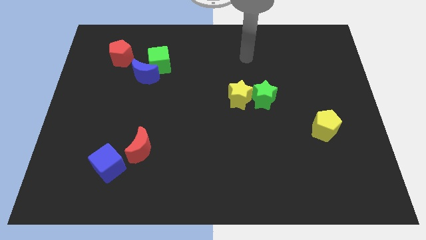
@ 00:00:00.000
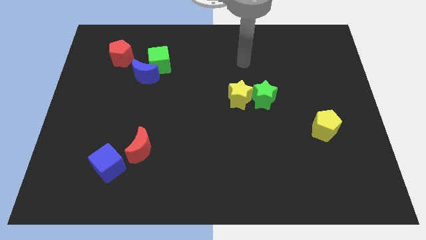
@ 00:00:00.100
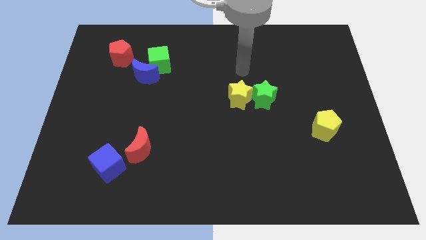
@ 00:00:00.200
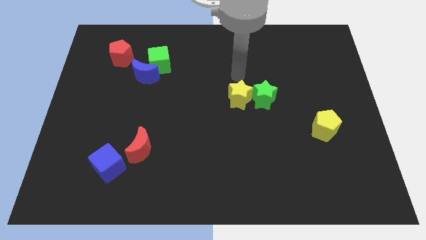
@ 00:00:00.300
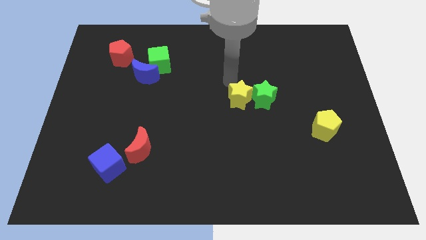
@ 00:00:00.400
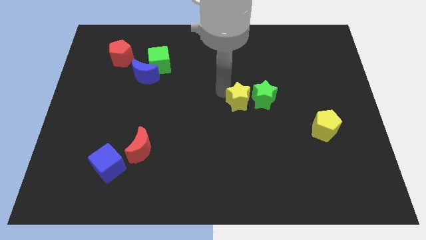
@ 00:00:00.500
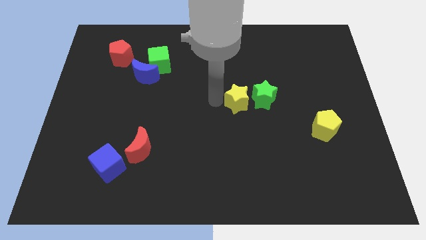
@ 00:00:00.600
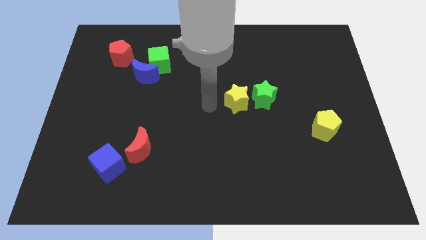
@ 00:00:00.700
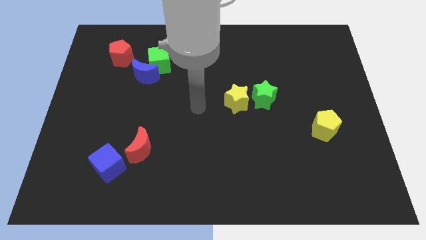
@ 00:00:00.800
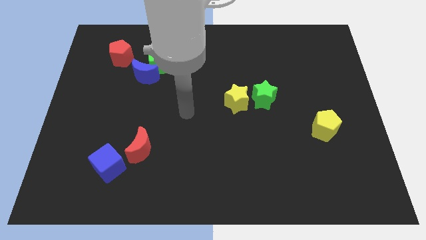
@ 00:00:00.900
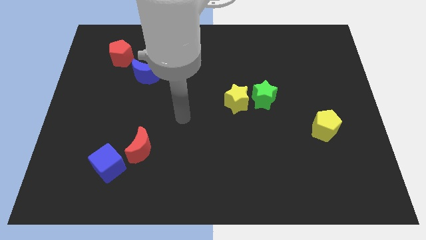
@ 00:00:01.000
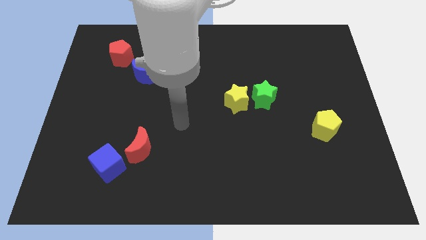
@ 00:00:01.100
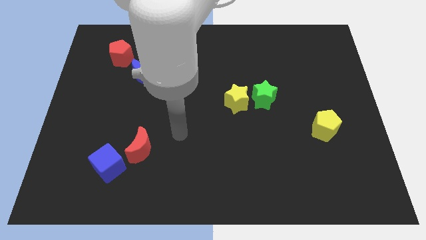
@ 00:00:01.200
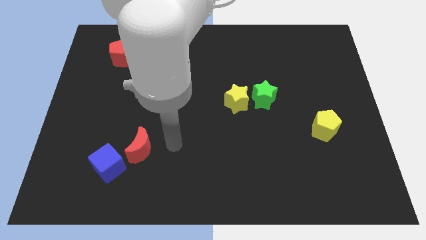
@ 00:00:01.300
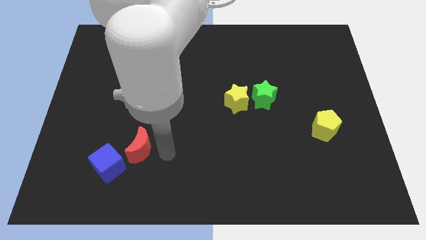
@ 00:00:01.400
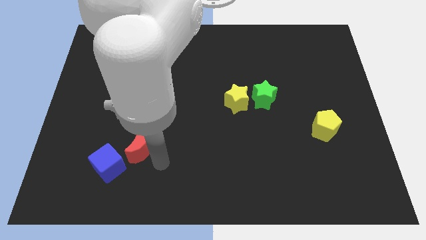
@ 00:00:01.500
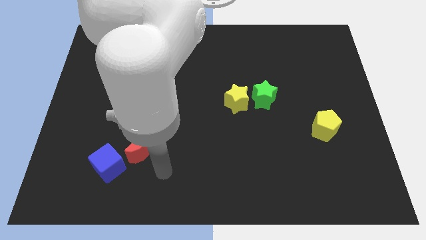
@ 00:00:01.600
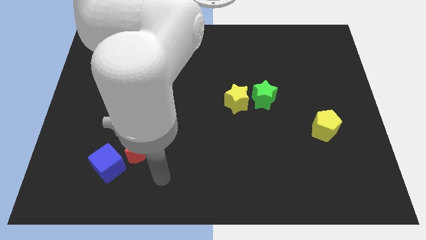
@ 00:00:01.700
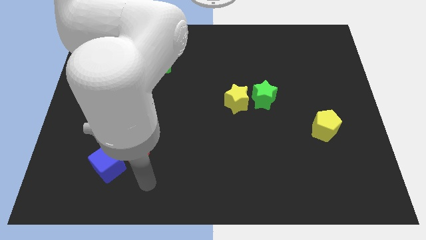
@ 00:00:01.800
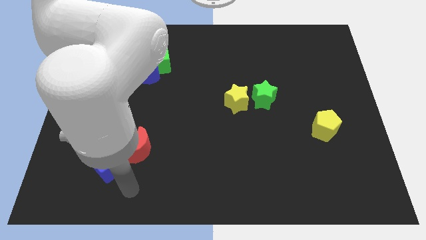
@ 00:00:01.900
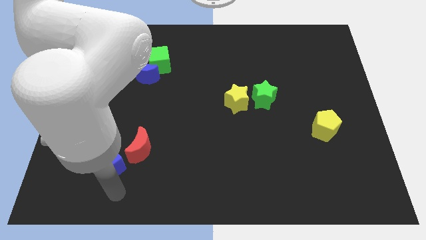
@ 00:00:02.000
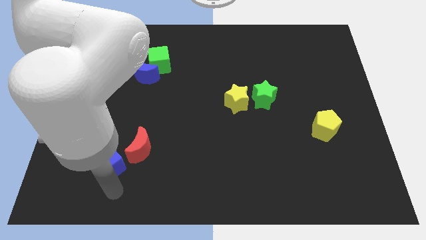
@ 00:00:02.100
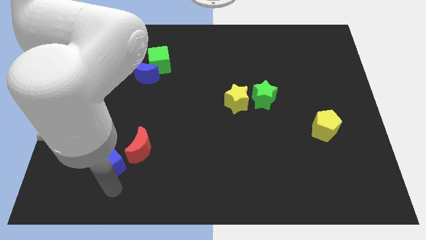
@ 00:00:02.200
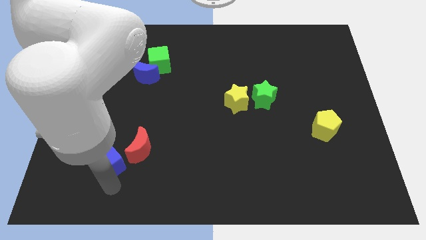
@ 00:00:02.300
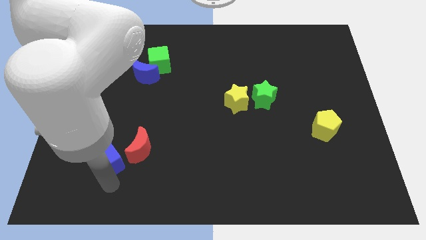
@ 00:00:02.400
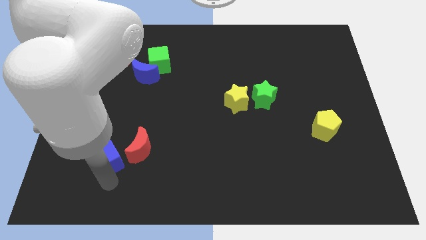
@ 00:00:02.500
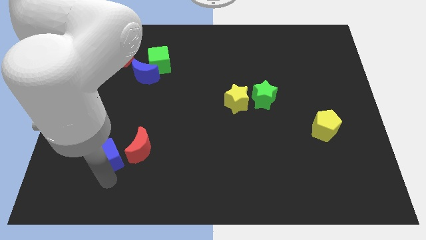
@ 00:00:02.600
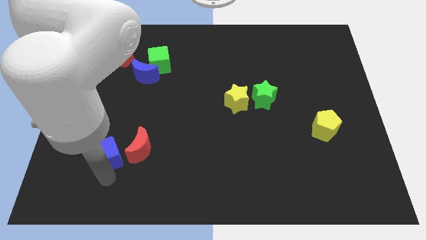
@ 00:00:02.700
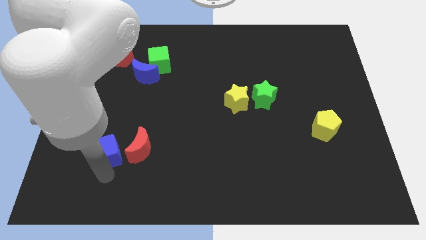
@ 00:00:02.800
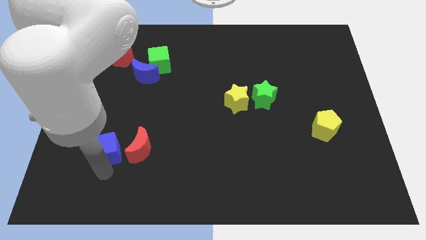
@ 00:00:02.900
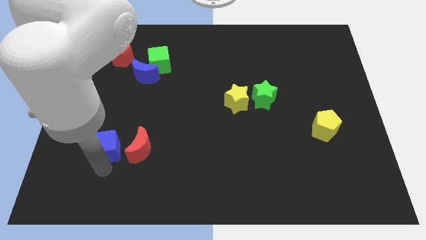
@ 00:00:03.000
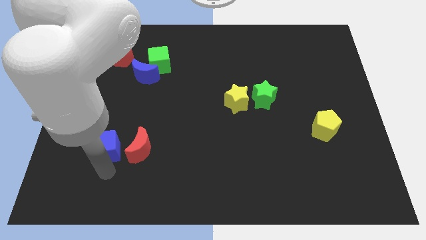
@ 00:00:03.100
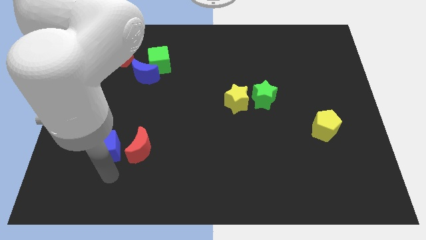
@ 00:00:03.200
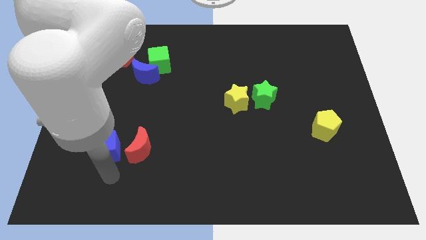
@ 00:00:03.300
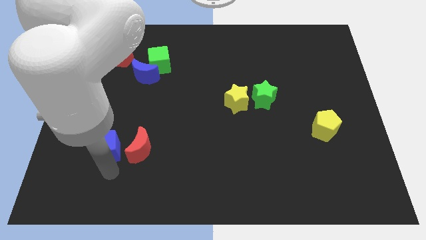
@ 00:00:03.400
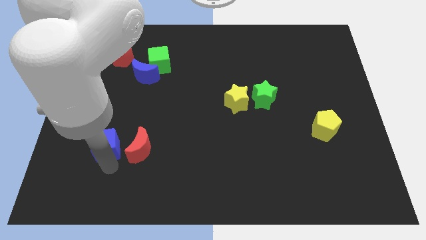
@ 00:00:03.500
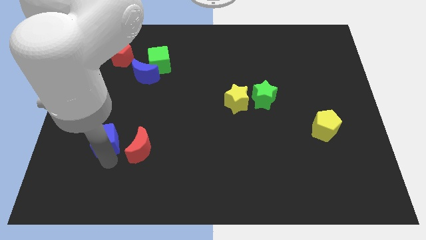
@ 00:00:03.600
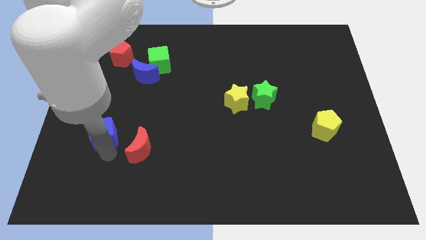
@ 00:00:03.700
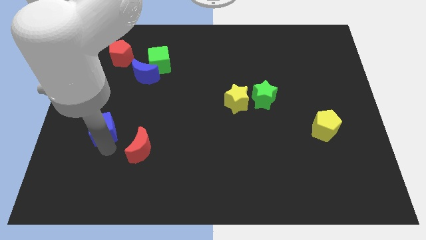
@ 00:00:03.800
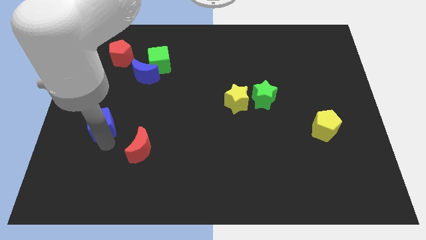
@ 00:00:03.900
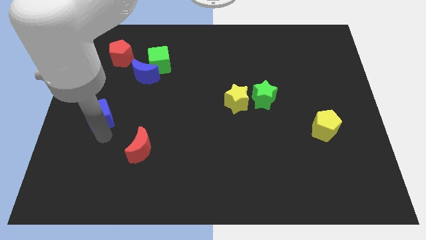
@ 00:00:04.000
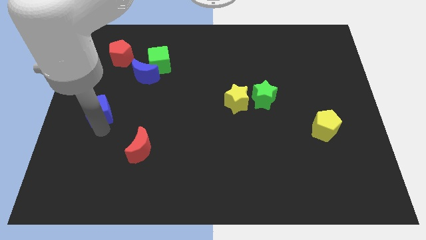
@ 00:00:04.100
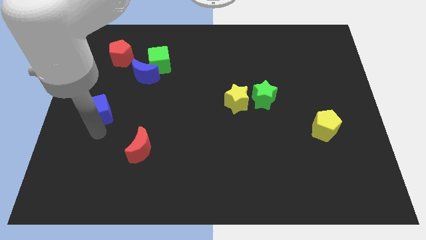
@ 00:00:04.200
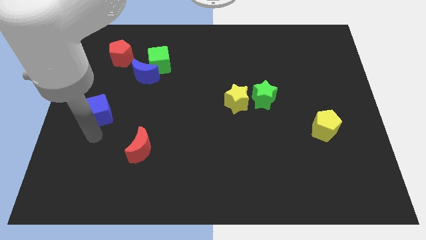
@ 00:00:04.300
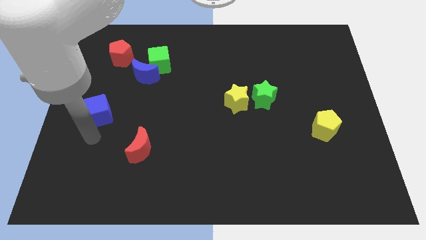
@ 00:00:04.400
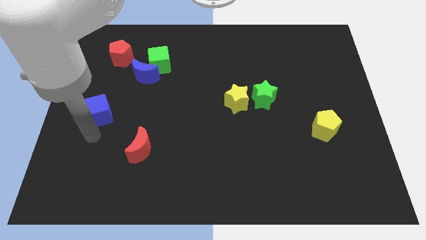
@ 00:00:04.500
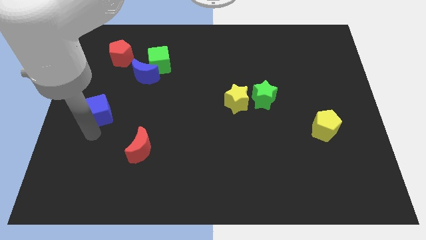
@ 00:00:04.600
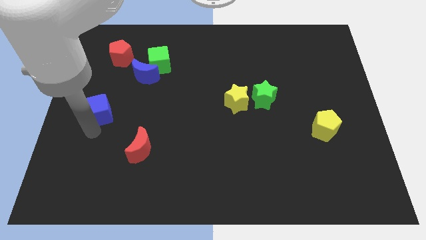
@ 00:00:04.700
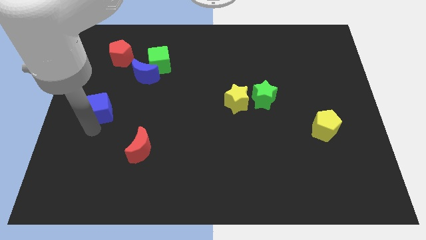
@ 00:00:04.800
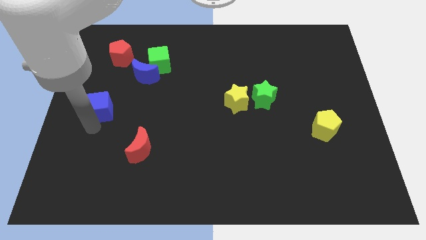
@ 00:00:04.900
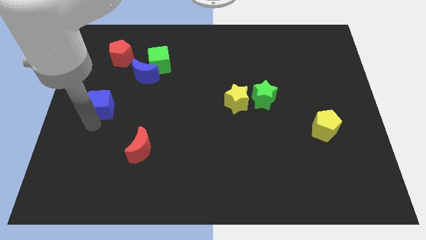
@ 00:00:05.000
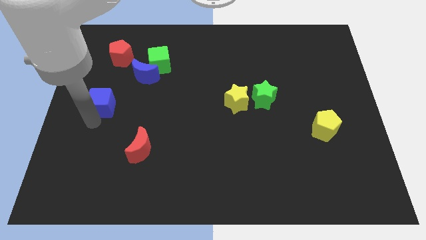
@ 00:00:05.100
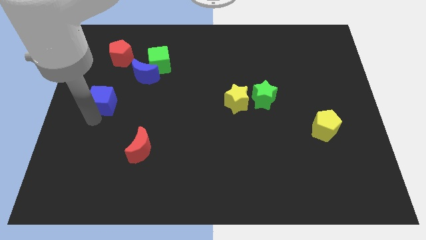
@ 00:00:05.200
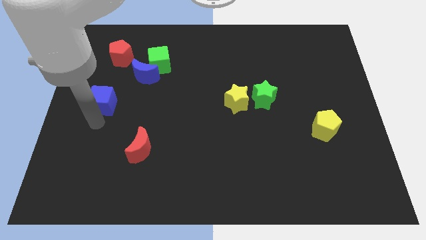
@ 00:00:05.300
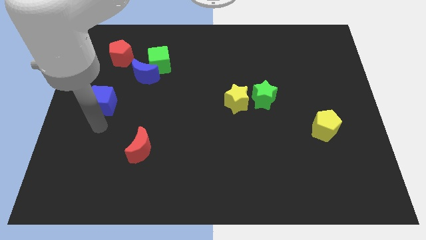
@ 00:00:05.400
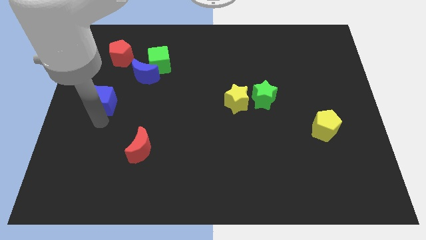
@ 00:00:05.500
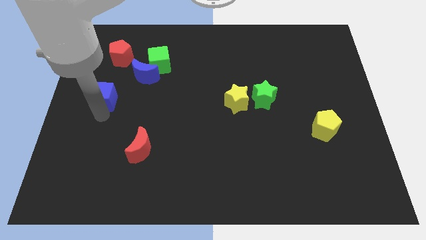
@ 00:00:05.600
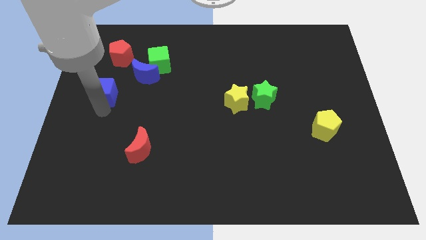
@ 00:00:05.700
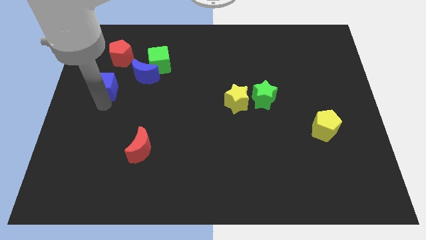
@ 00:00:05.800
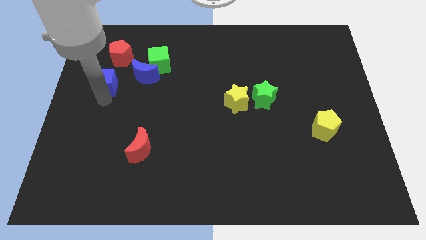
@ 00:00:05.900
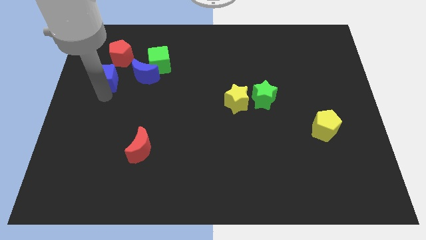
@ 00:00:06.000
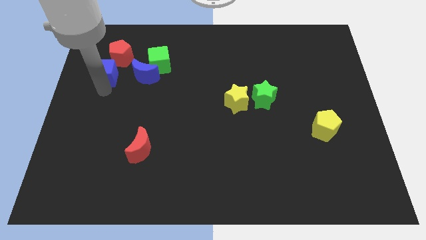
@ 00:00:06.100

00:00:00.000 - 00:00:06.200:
move the blue cube to the left of the green cube

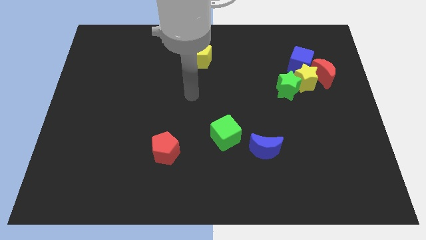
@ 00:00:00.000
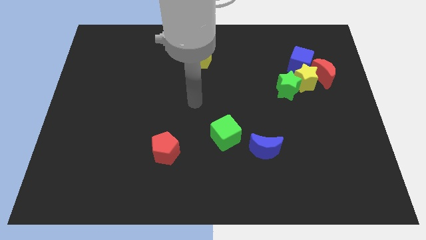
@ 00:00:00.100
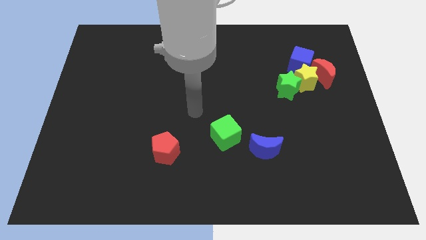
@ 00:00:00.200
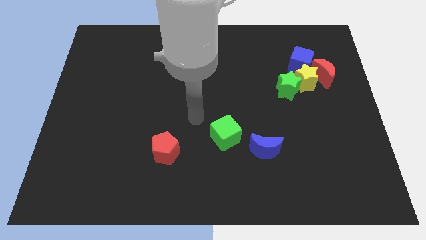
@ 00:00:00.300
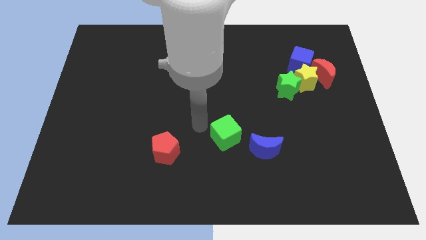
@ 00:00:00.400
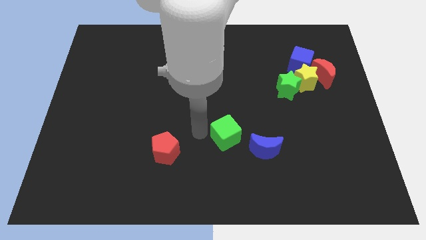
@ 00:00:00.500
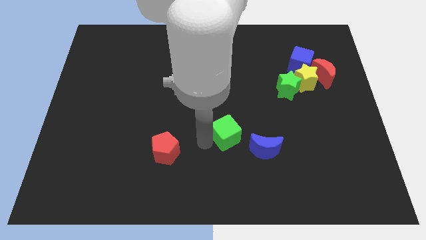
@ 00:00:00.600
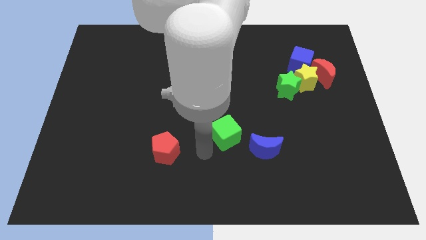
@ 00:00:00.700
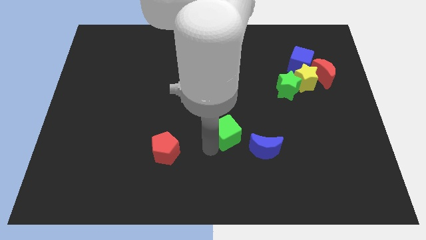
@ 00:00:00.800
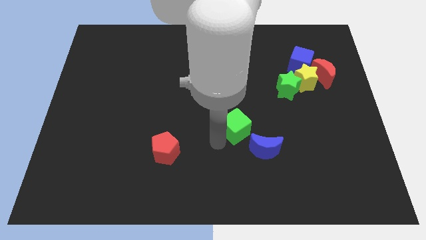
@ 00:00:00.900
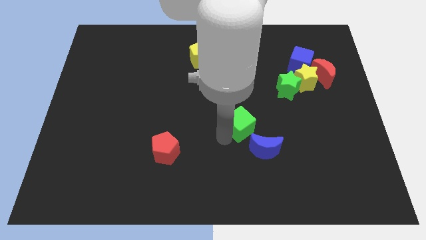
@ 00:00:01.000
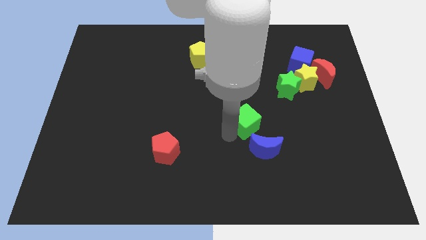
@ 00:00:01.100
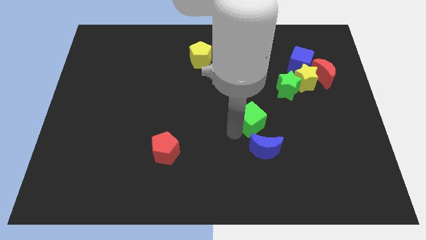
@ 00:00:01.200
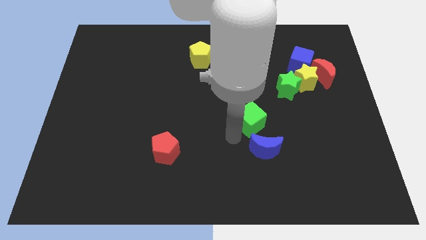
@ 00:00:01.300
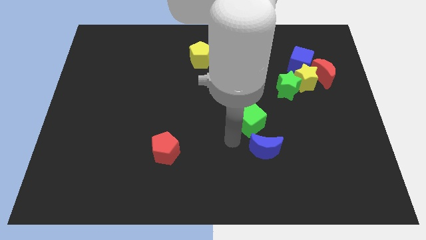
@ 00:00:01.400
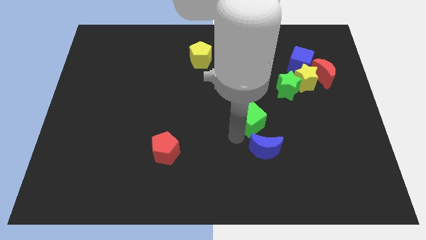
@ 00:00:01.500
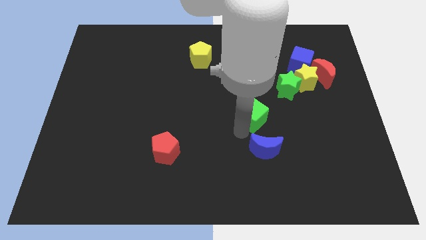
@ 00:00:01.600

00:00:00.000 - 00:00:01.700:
slide the green cube diagonally down and to the left of the green star
